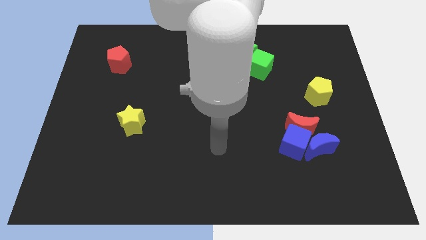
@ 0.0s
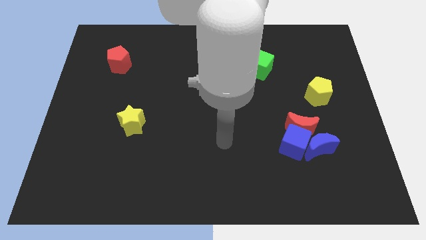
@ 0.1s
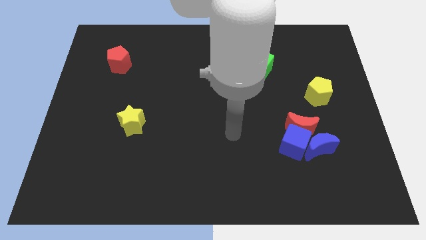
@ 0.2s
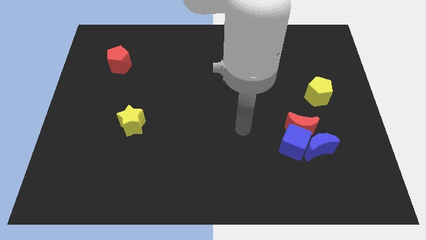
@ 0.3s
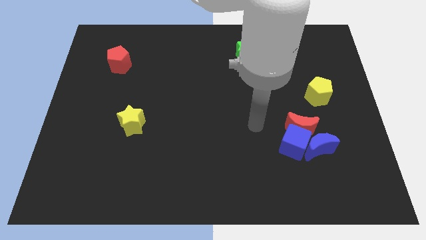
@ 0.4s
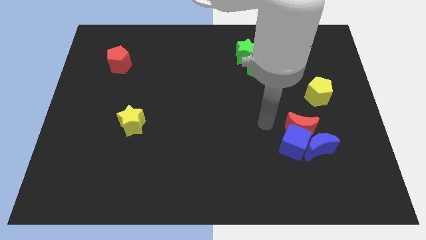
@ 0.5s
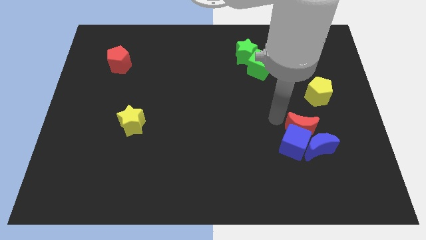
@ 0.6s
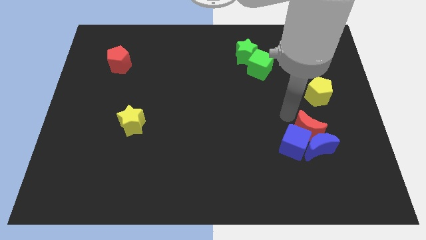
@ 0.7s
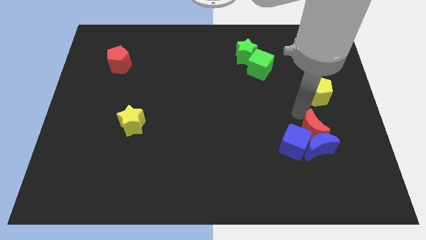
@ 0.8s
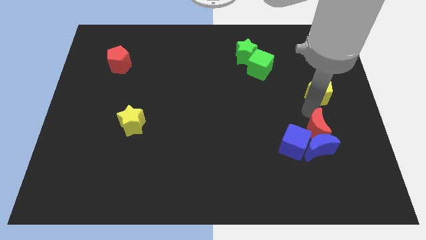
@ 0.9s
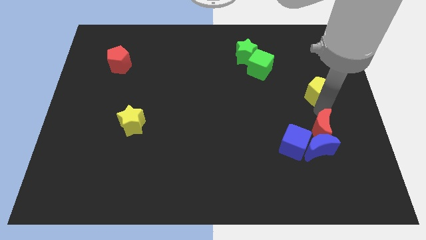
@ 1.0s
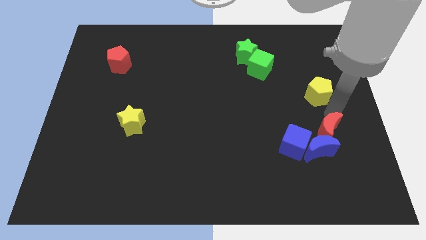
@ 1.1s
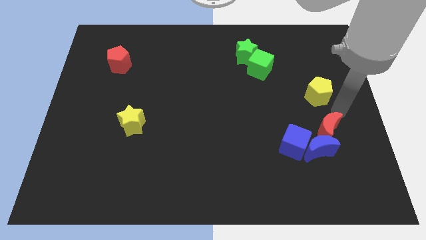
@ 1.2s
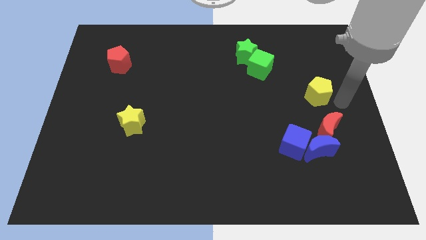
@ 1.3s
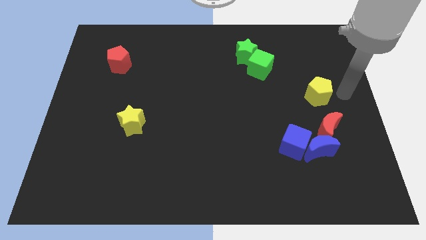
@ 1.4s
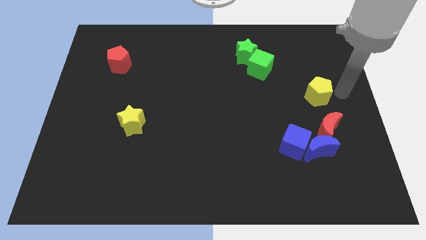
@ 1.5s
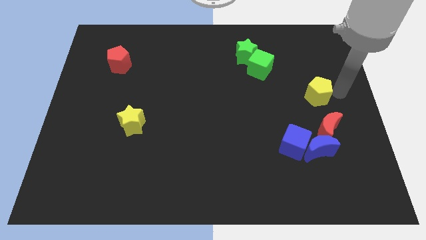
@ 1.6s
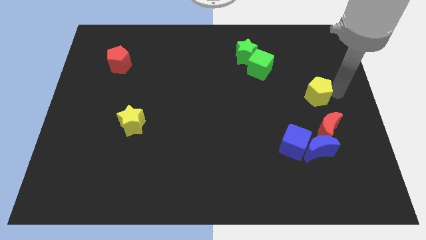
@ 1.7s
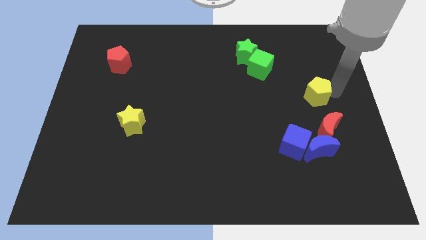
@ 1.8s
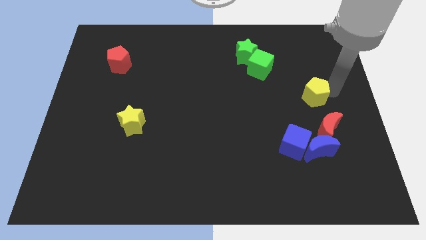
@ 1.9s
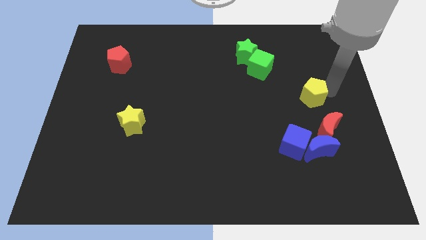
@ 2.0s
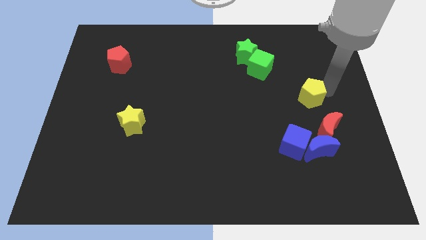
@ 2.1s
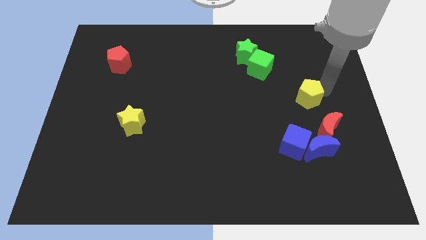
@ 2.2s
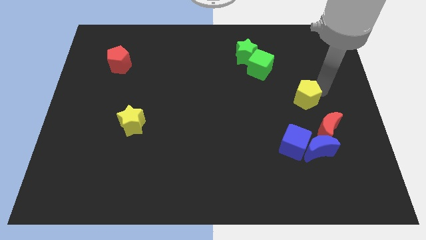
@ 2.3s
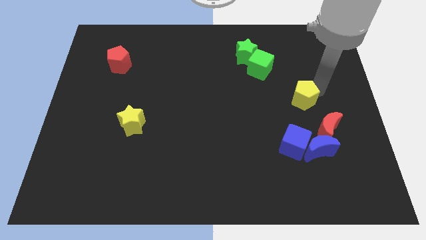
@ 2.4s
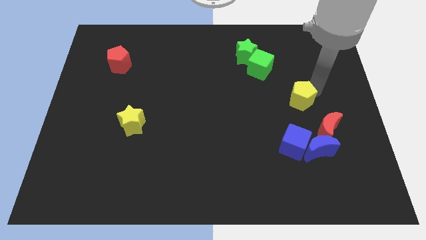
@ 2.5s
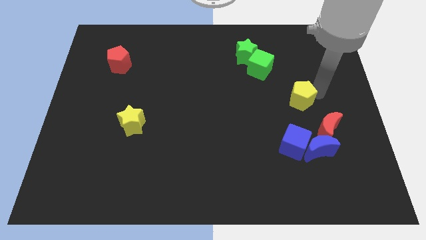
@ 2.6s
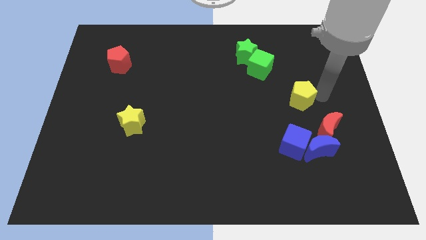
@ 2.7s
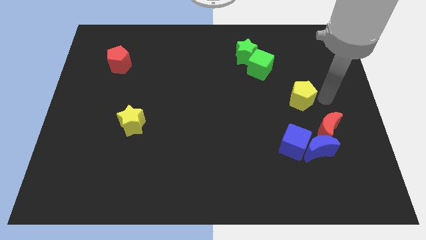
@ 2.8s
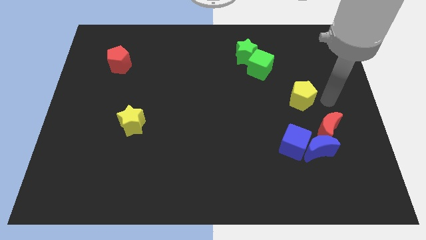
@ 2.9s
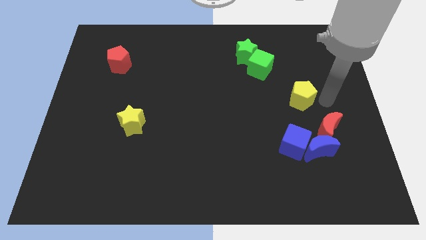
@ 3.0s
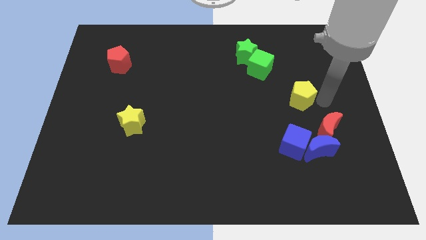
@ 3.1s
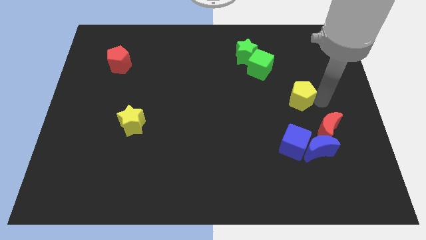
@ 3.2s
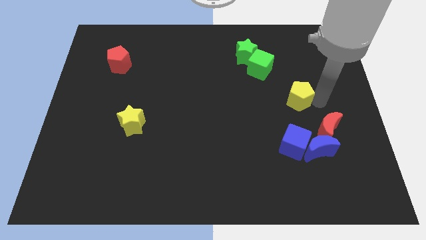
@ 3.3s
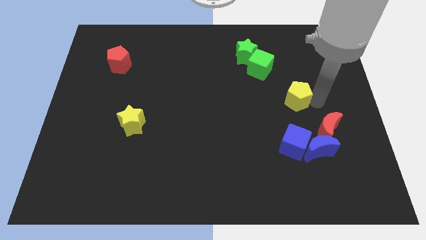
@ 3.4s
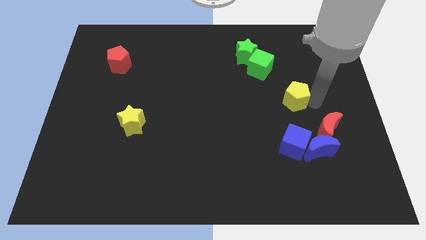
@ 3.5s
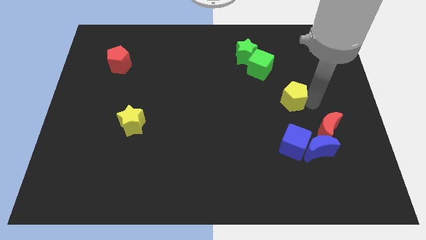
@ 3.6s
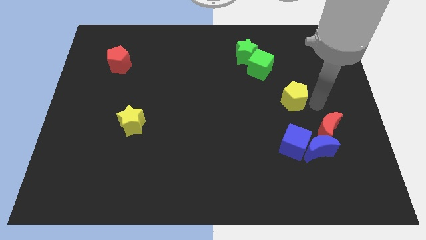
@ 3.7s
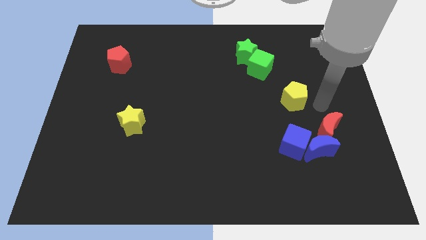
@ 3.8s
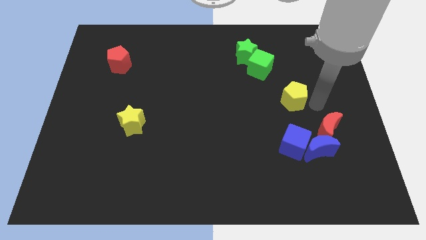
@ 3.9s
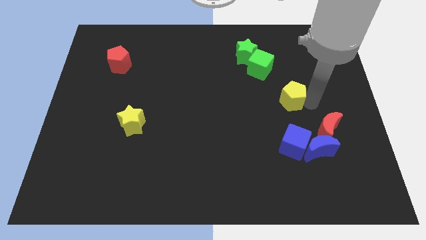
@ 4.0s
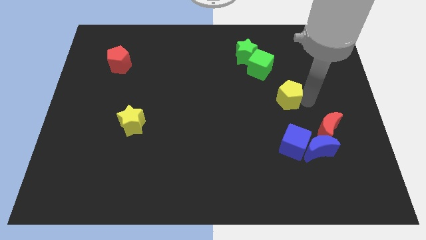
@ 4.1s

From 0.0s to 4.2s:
slide the yellow pentagon to the left a little

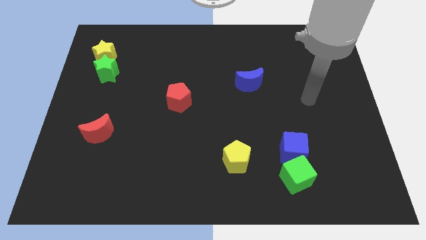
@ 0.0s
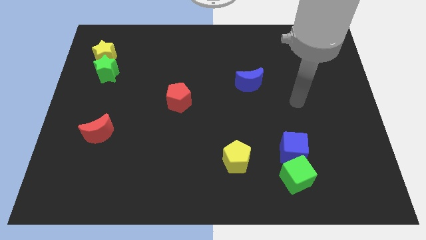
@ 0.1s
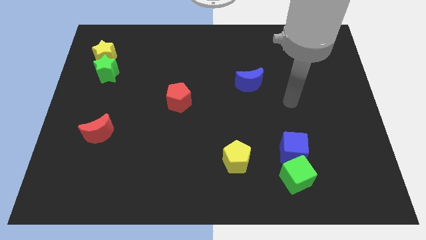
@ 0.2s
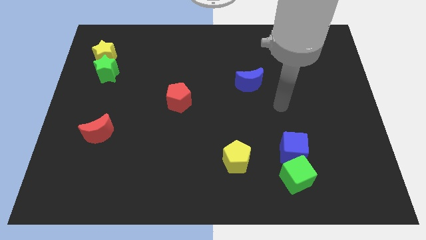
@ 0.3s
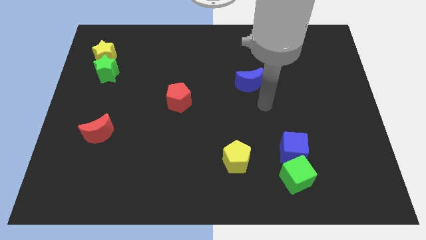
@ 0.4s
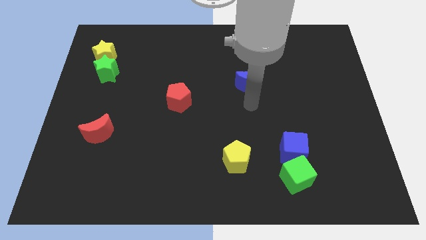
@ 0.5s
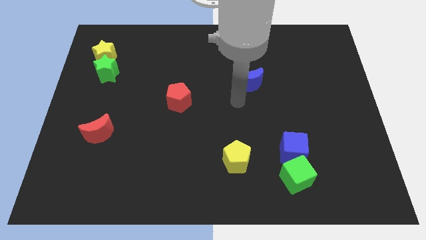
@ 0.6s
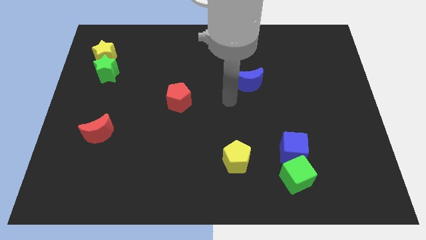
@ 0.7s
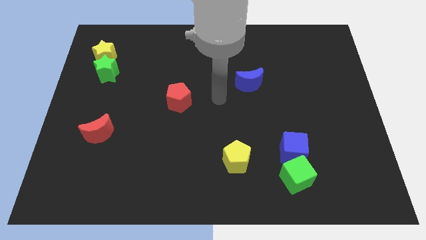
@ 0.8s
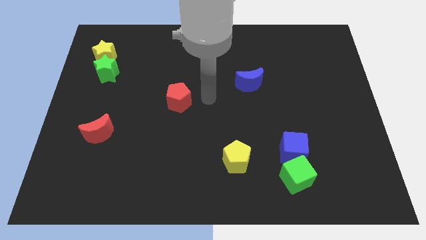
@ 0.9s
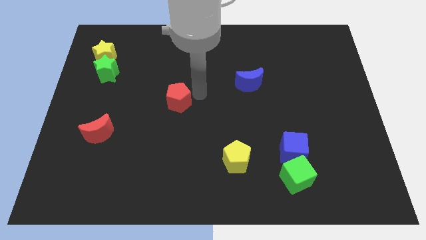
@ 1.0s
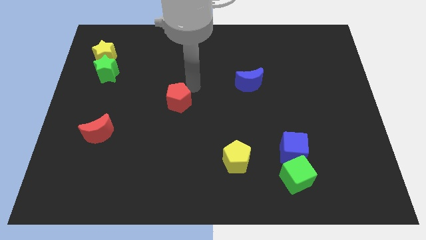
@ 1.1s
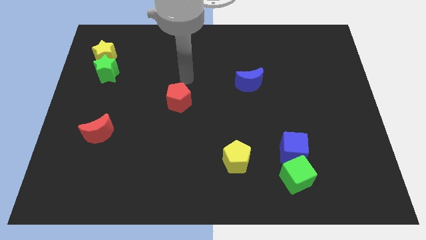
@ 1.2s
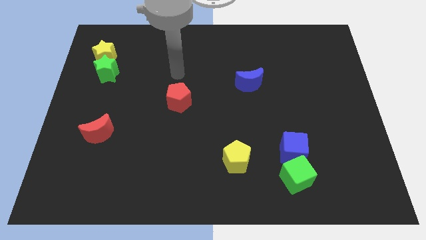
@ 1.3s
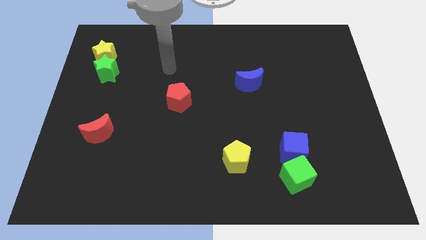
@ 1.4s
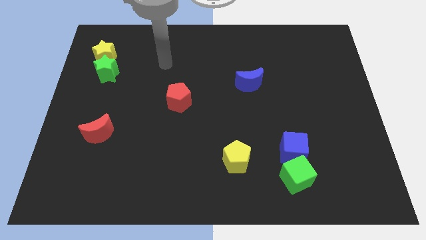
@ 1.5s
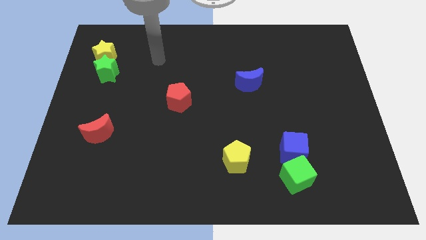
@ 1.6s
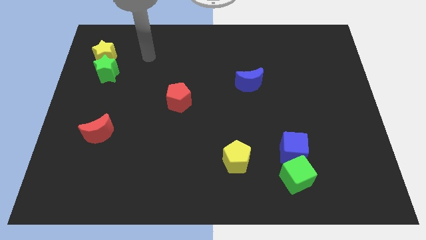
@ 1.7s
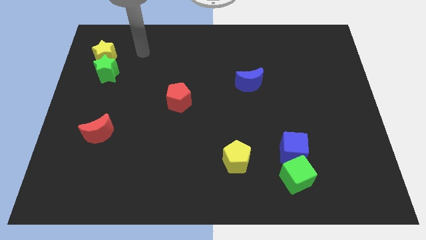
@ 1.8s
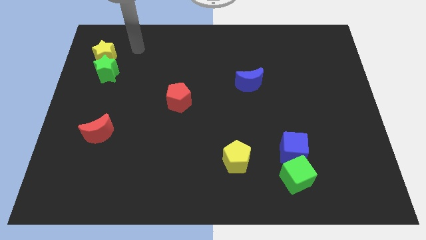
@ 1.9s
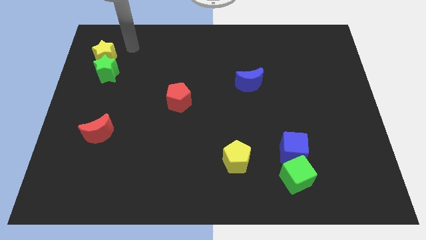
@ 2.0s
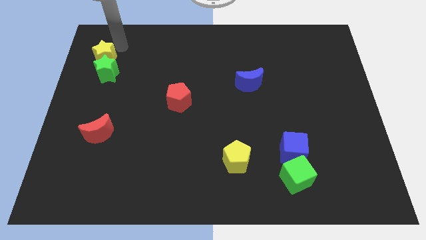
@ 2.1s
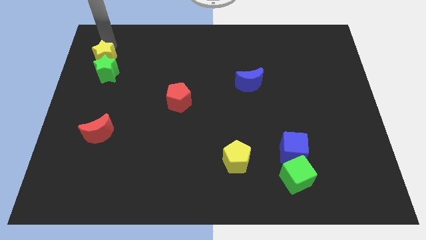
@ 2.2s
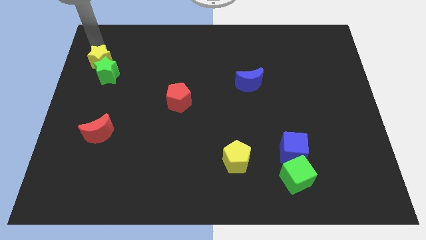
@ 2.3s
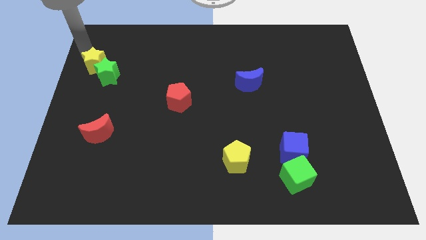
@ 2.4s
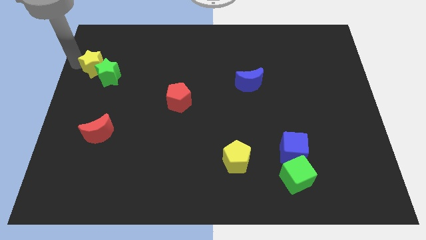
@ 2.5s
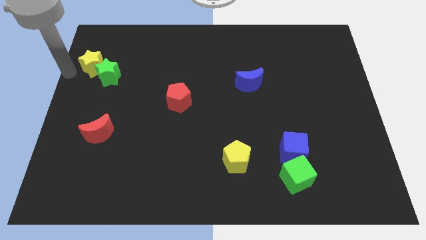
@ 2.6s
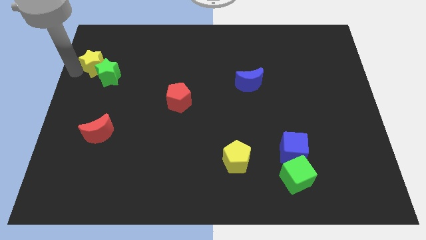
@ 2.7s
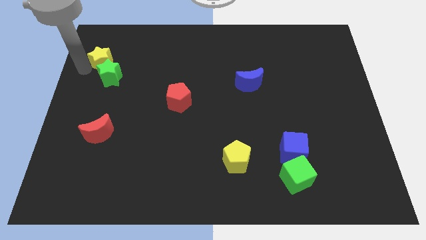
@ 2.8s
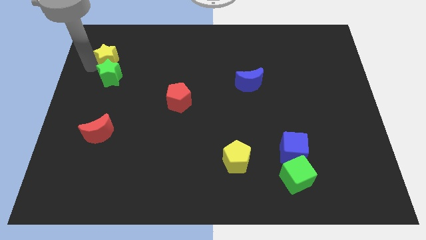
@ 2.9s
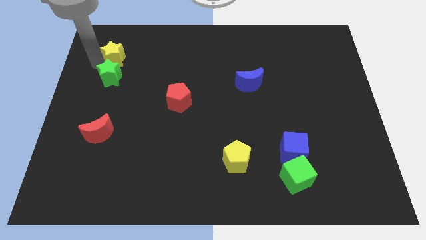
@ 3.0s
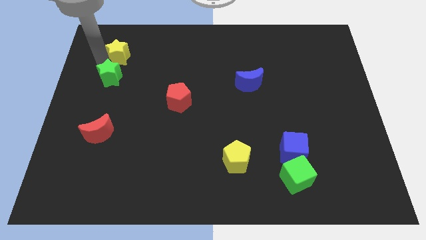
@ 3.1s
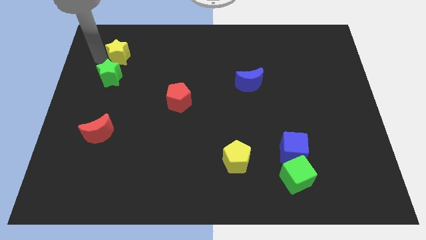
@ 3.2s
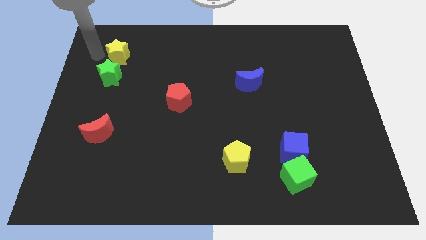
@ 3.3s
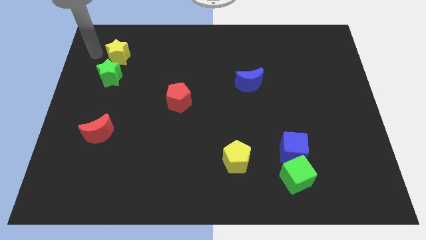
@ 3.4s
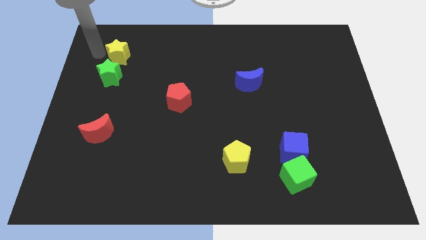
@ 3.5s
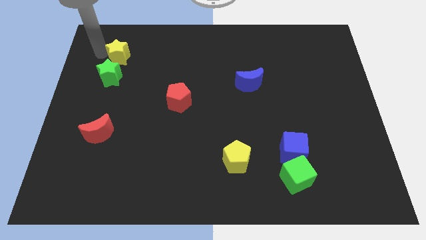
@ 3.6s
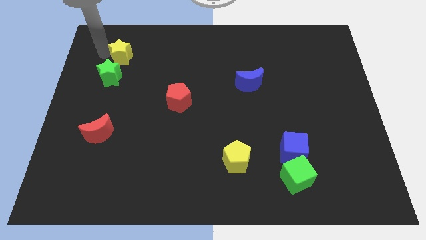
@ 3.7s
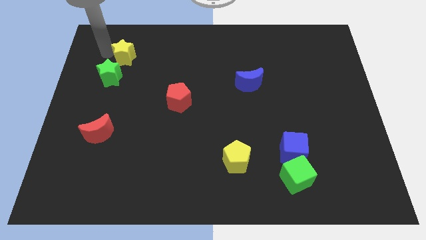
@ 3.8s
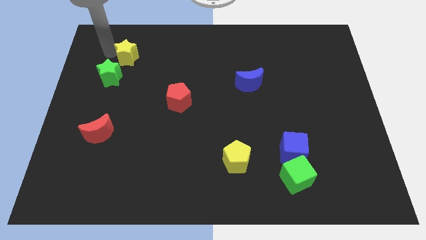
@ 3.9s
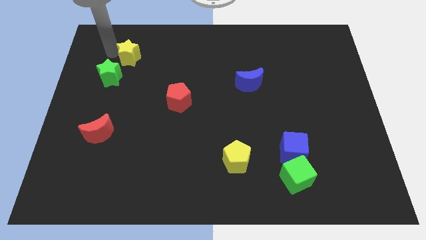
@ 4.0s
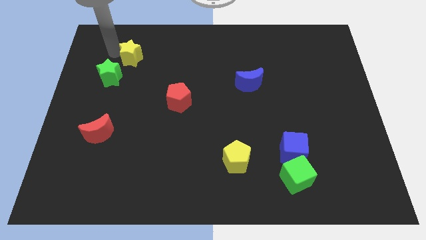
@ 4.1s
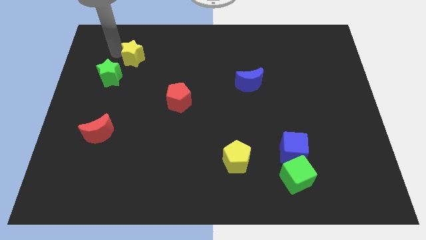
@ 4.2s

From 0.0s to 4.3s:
slightly move the yellow star to the right
